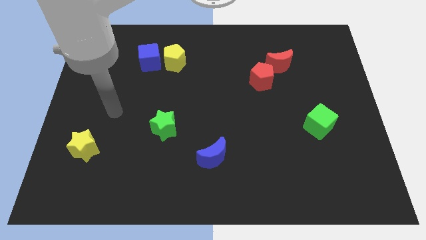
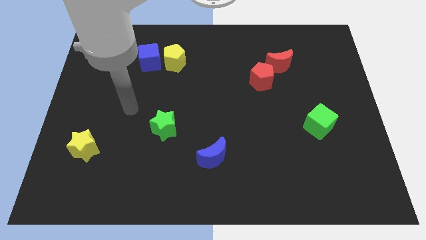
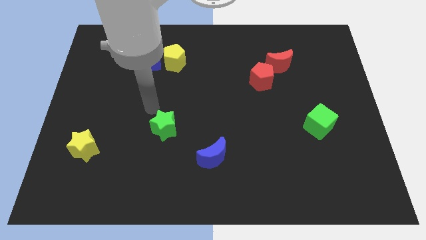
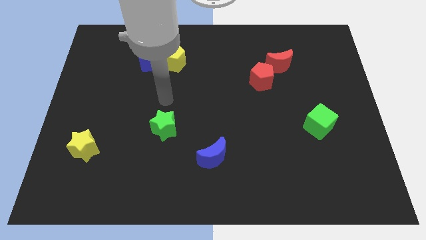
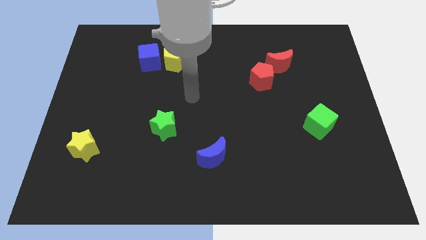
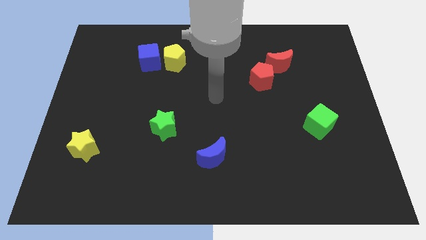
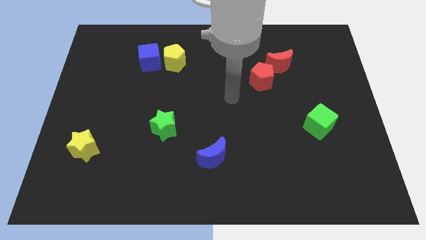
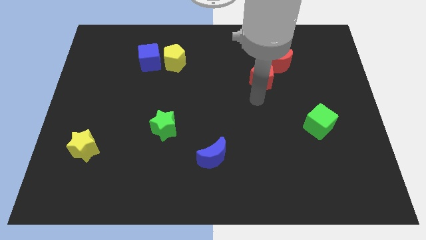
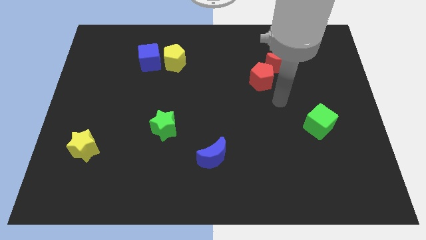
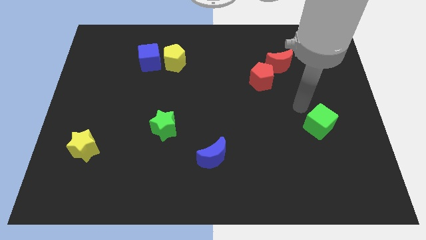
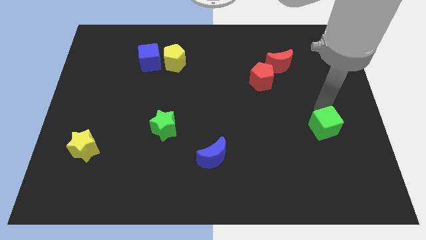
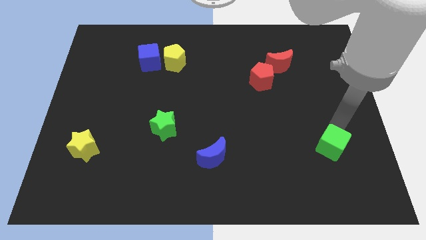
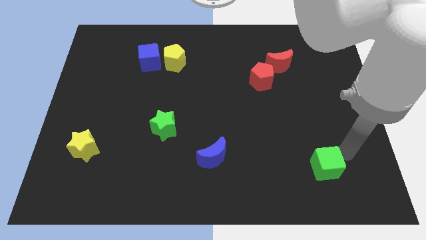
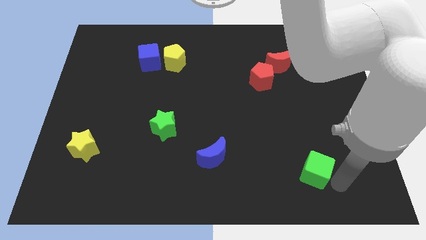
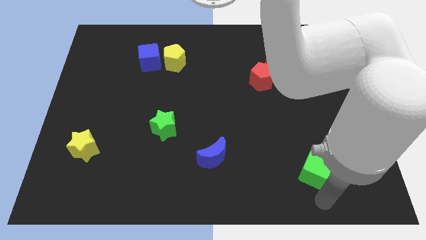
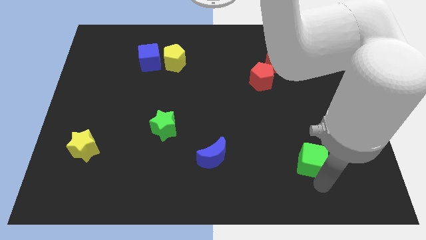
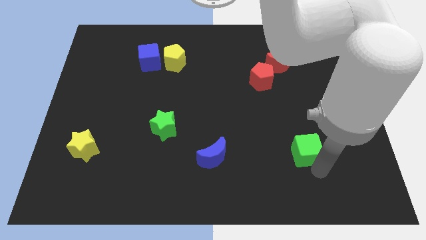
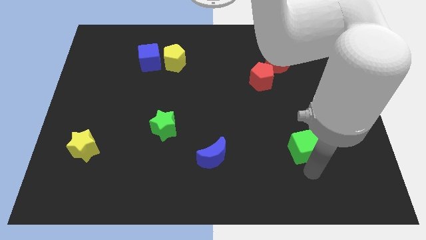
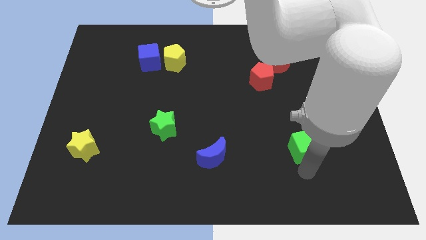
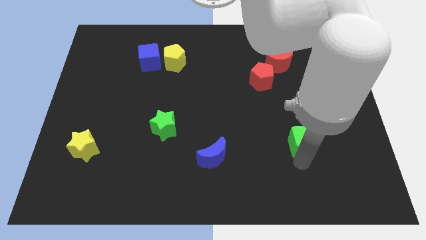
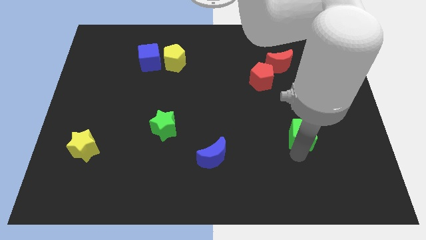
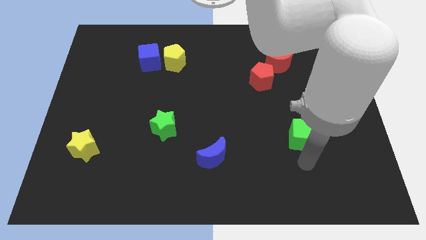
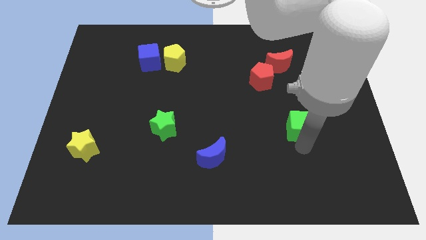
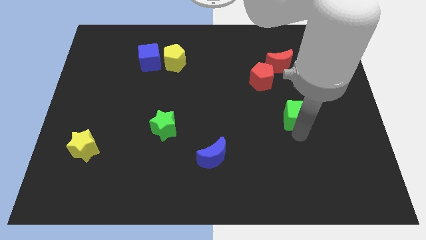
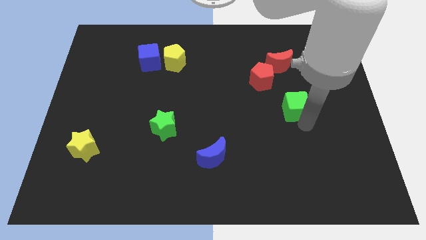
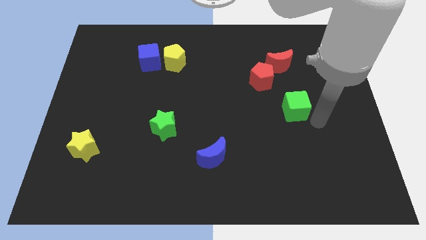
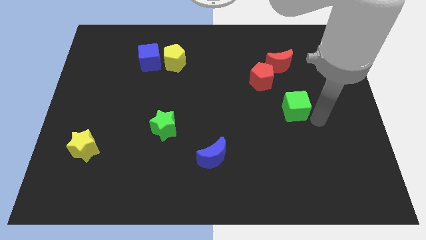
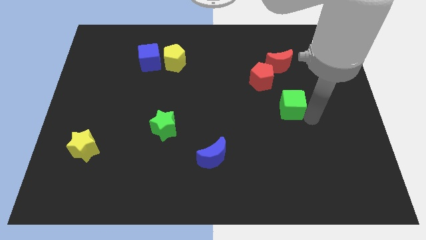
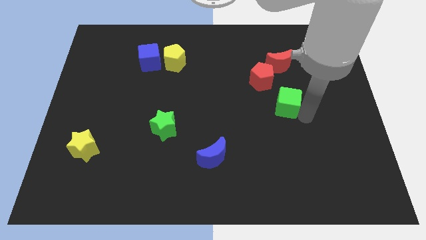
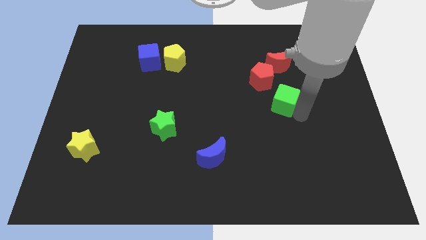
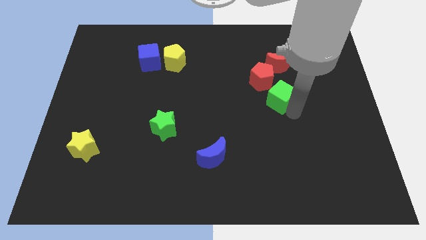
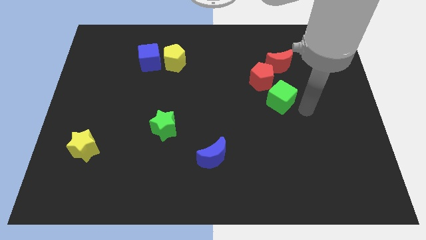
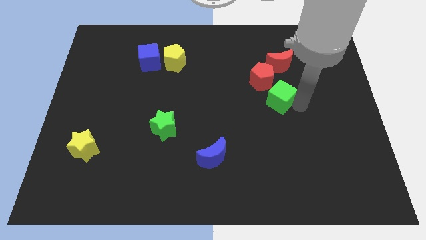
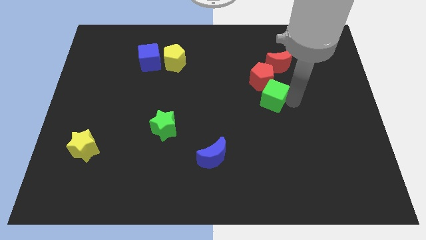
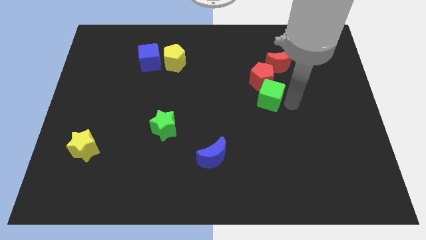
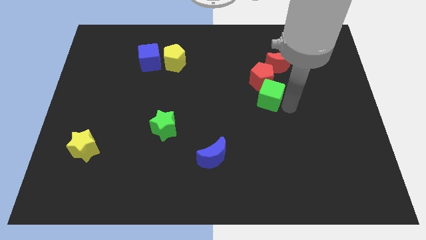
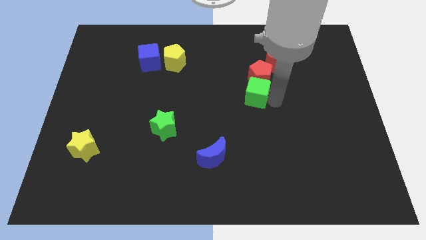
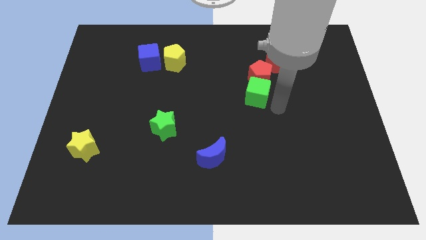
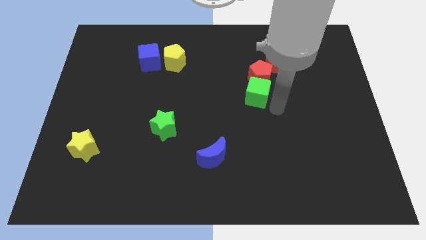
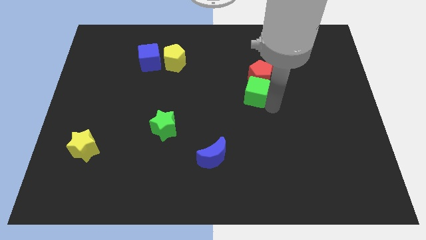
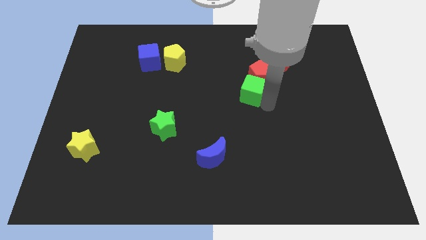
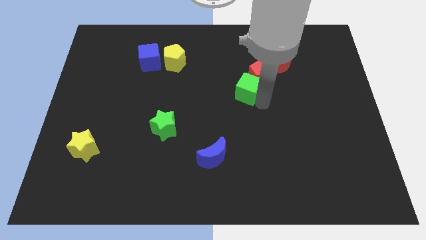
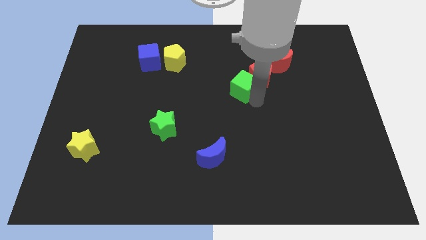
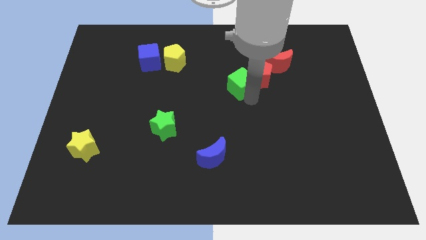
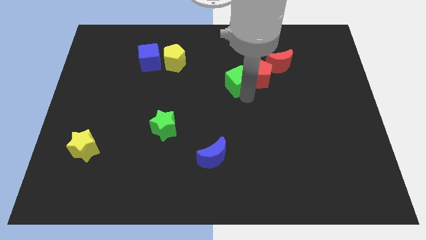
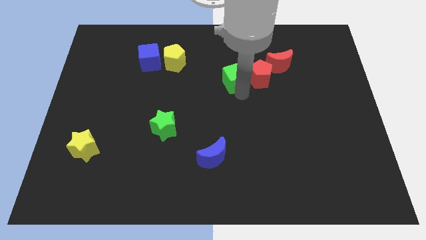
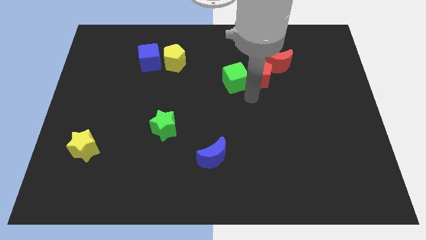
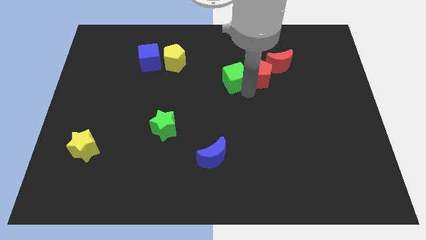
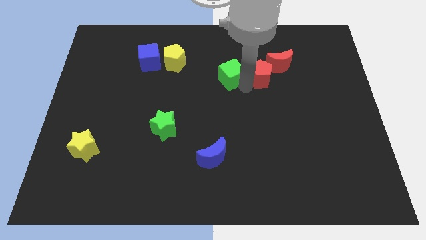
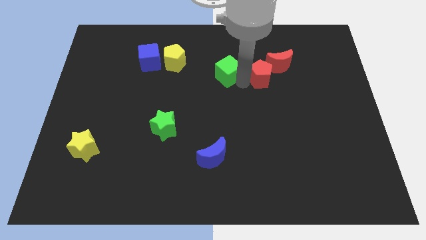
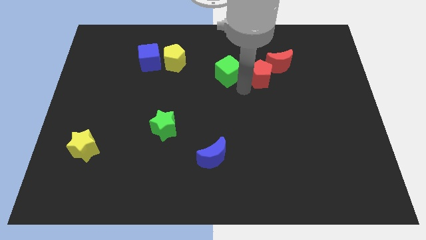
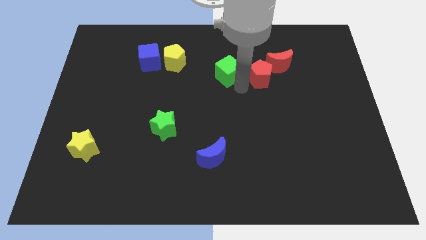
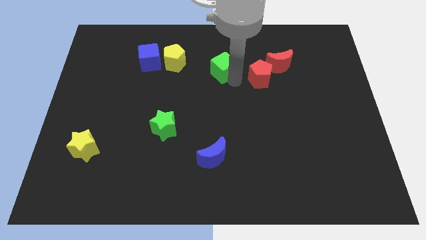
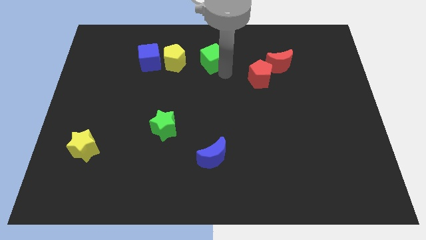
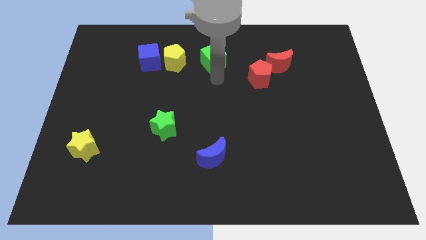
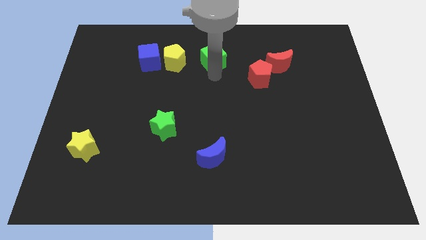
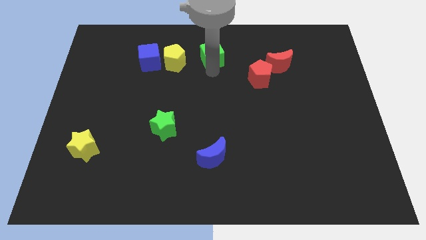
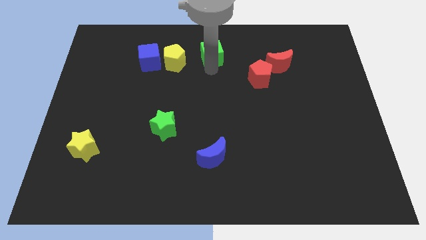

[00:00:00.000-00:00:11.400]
put the green cube to the top side

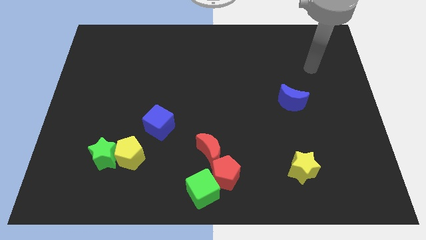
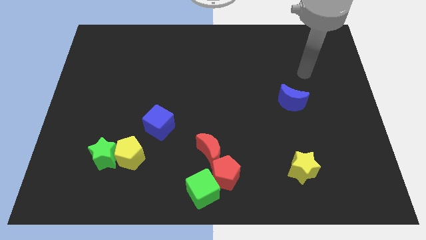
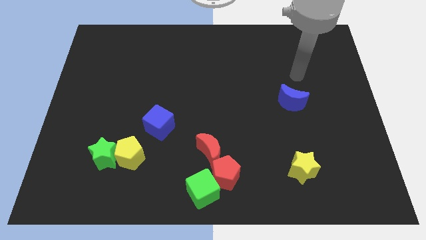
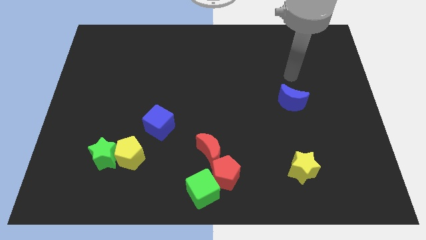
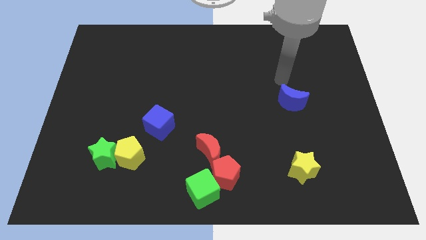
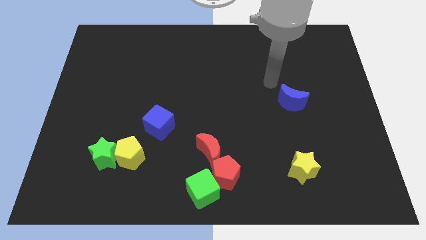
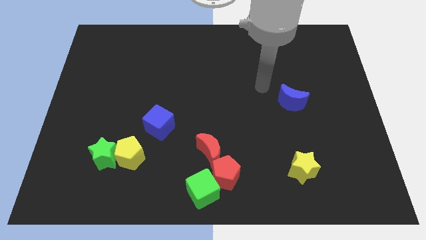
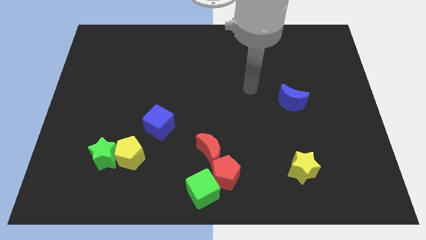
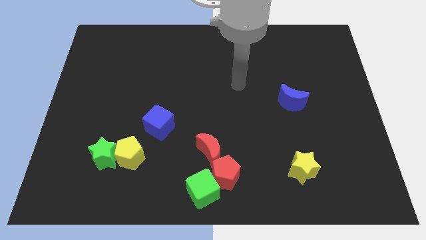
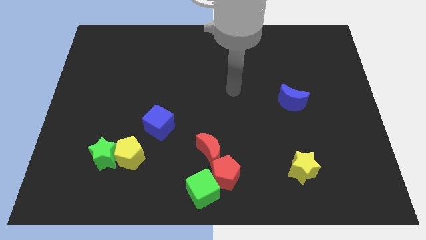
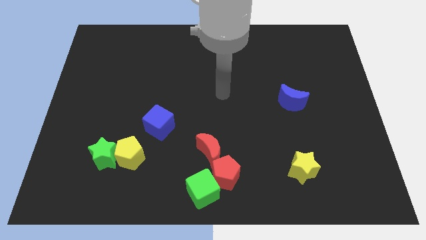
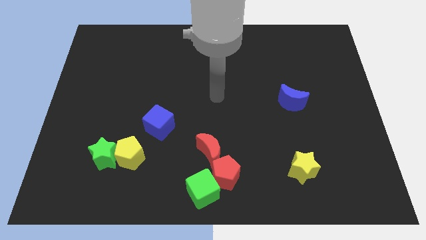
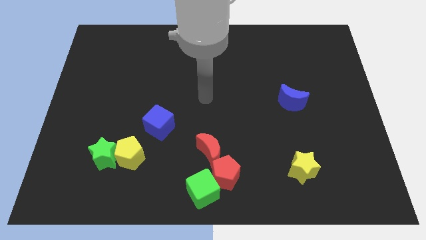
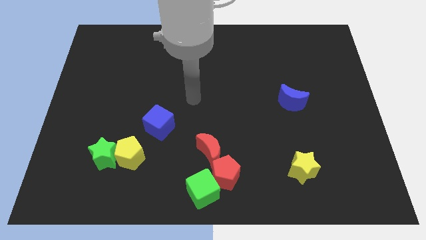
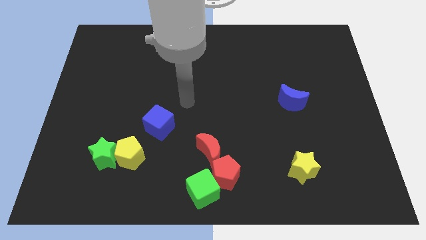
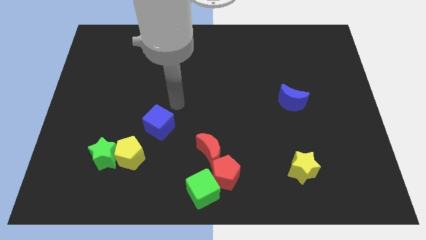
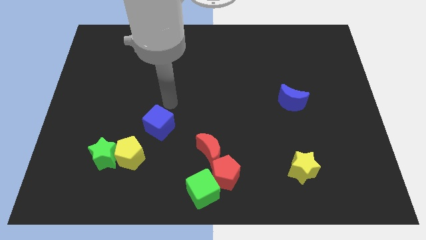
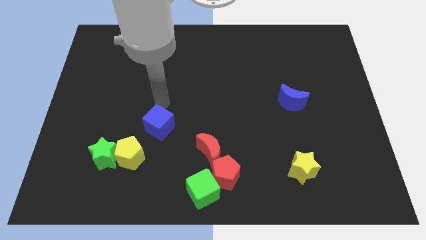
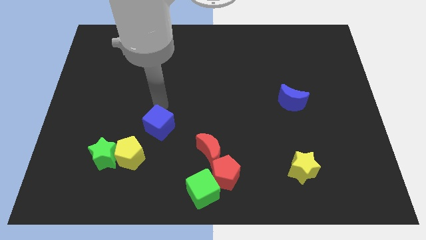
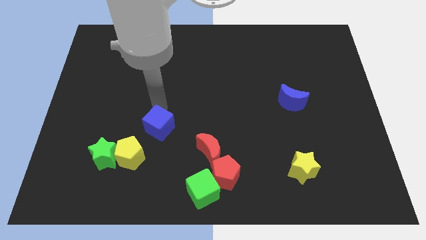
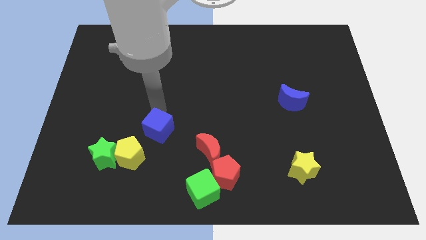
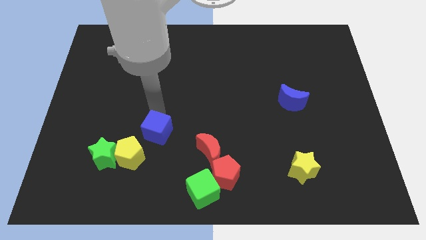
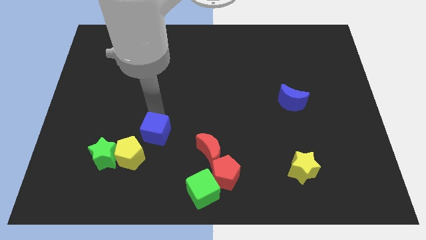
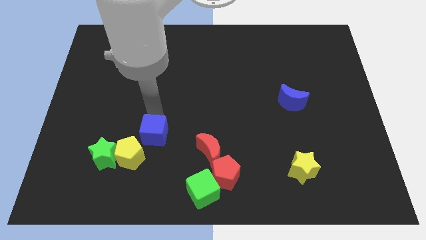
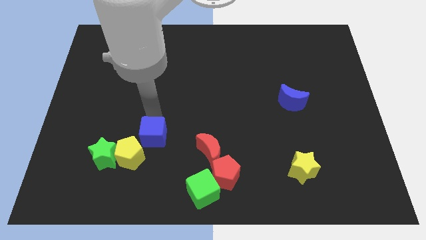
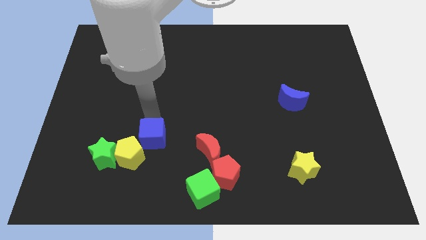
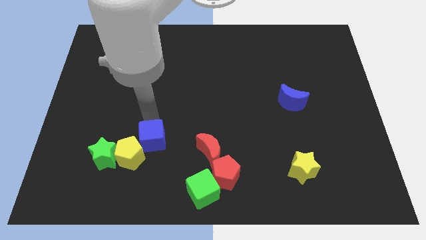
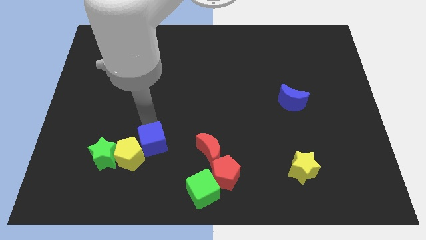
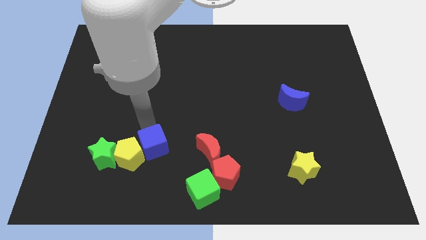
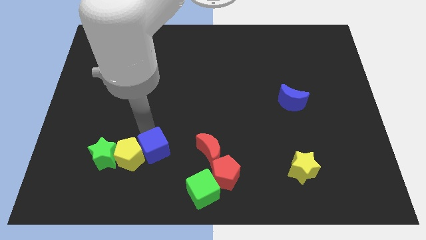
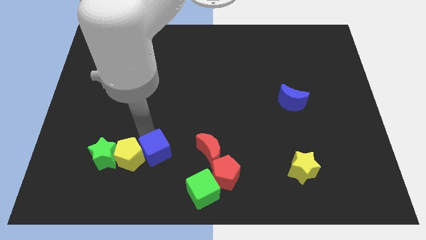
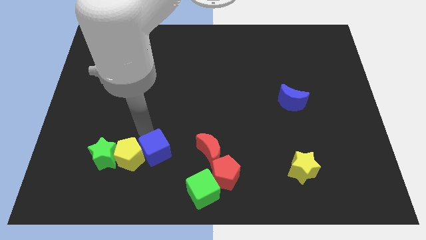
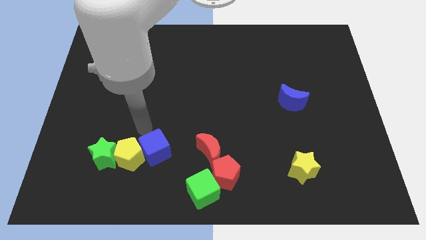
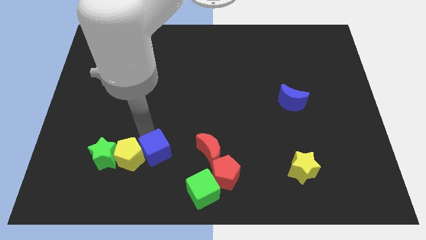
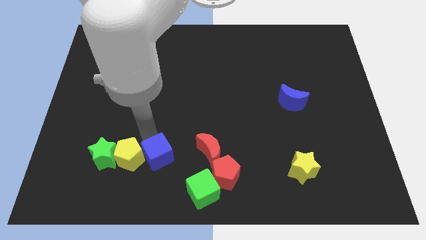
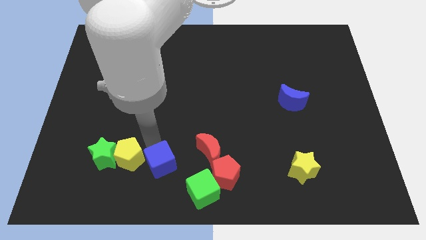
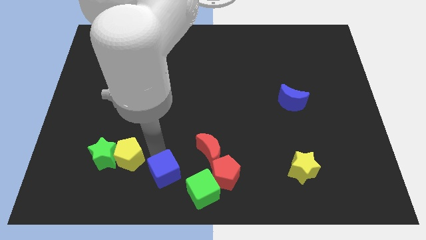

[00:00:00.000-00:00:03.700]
slide the blue cube to the bottom side
